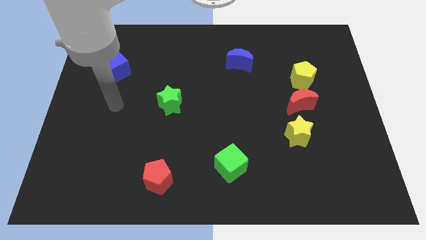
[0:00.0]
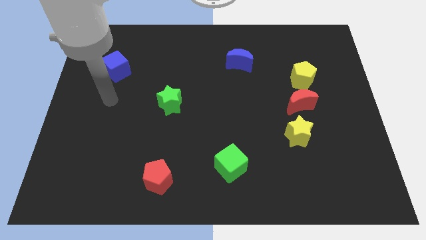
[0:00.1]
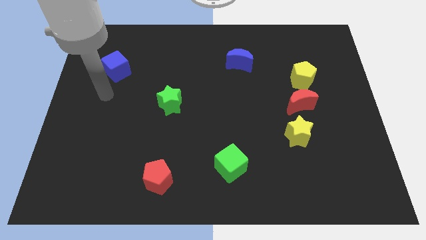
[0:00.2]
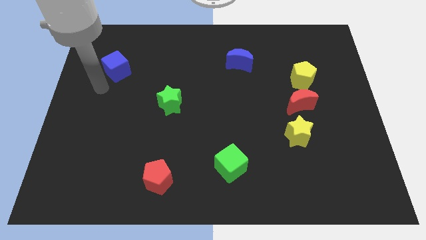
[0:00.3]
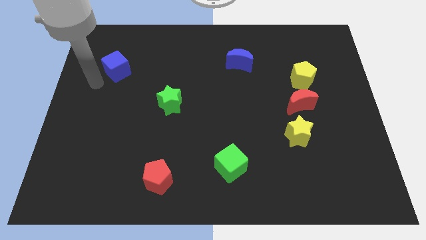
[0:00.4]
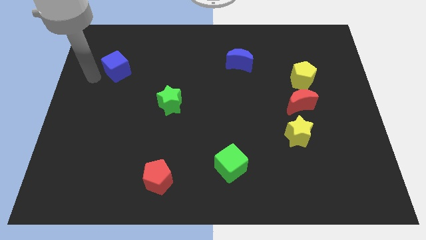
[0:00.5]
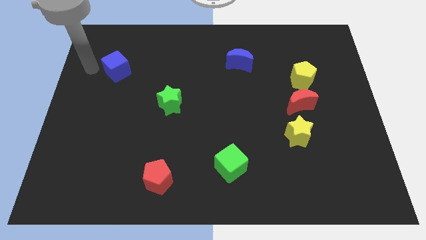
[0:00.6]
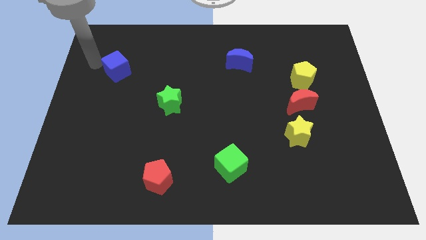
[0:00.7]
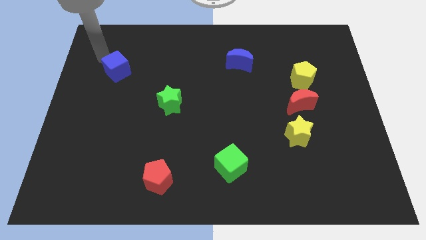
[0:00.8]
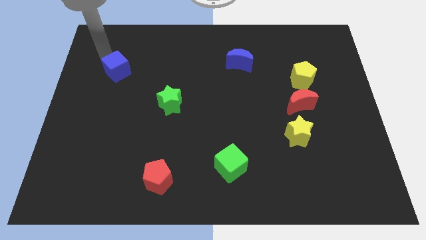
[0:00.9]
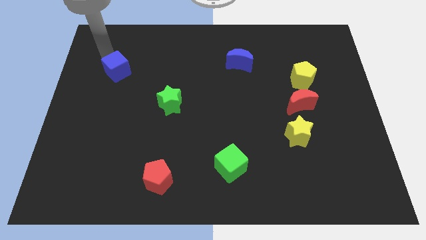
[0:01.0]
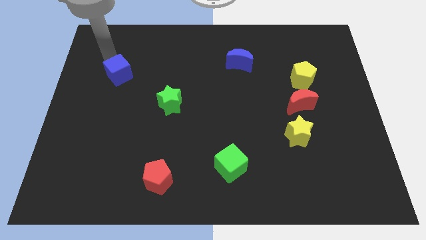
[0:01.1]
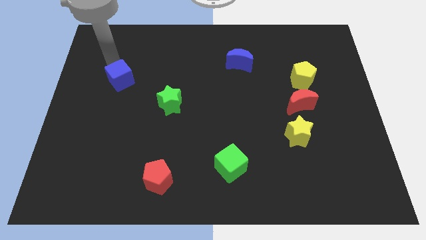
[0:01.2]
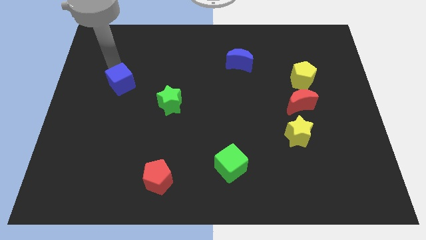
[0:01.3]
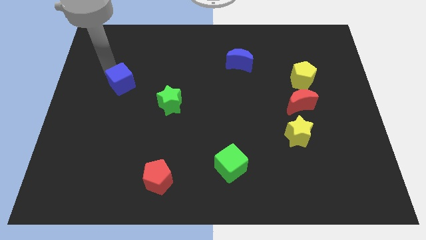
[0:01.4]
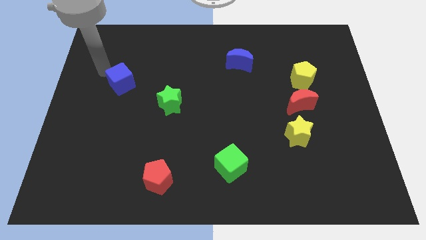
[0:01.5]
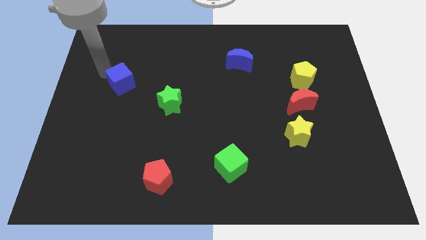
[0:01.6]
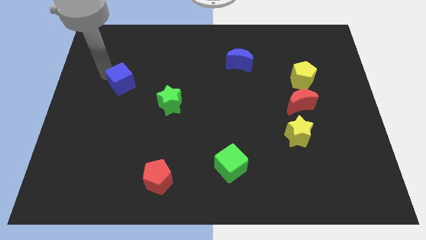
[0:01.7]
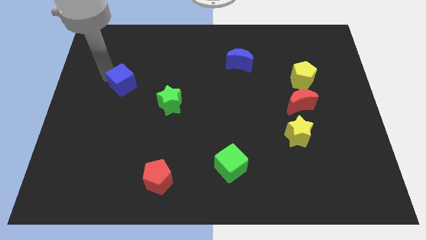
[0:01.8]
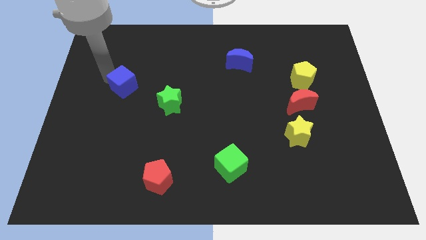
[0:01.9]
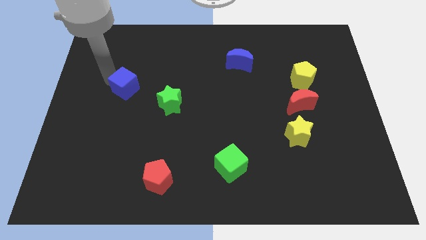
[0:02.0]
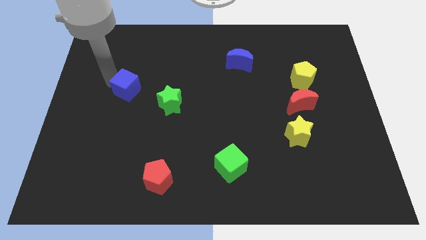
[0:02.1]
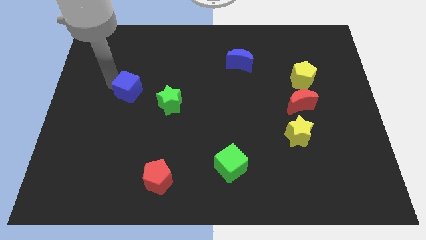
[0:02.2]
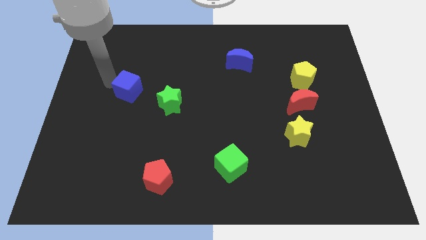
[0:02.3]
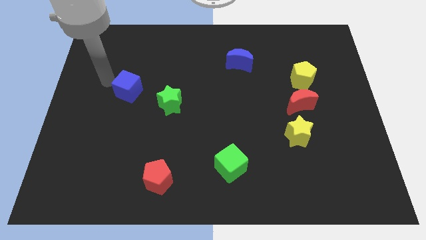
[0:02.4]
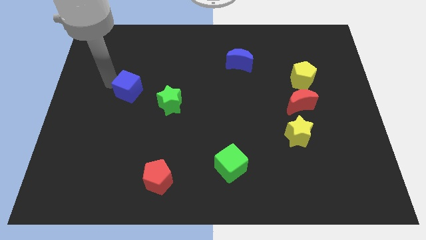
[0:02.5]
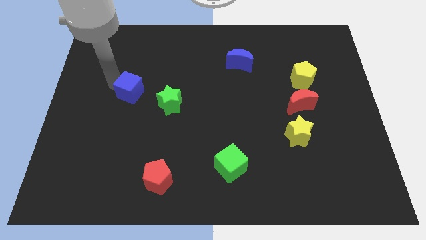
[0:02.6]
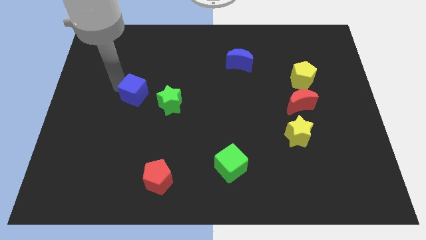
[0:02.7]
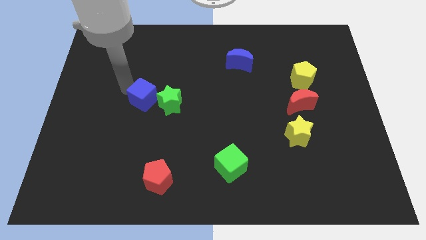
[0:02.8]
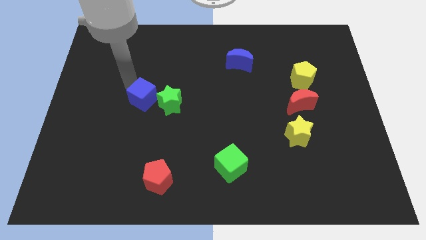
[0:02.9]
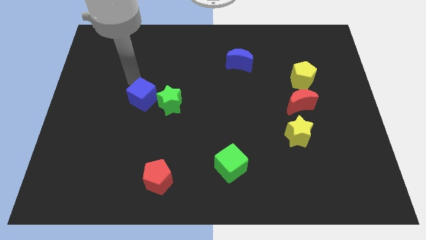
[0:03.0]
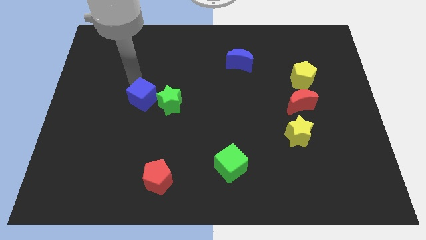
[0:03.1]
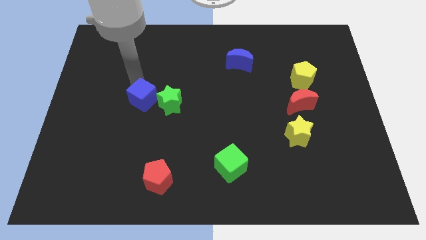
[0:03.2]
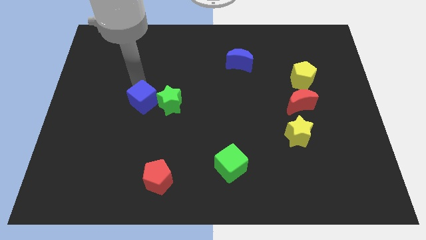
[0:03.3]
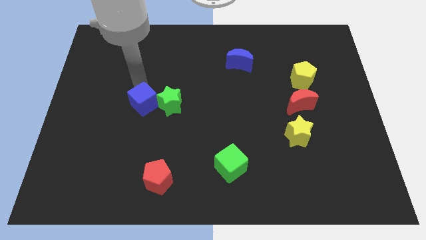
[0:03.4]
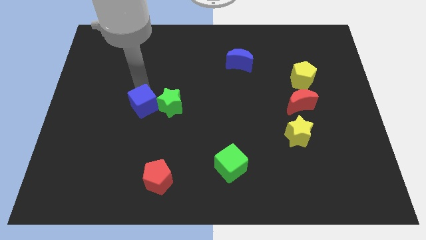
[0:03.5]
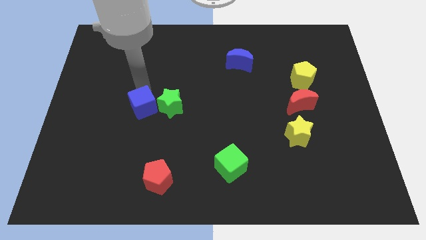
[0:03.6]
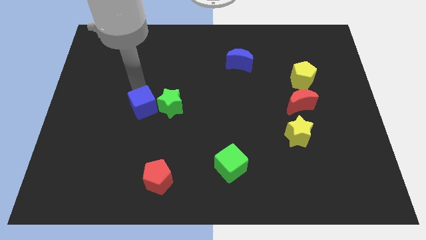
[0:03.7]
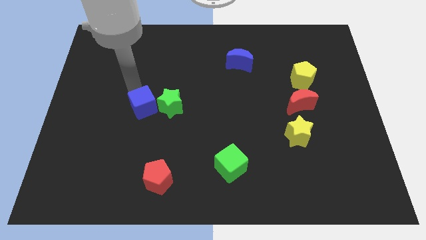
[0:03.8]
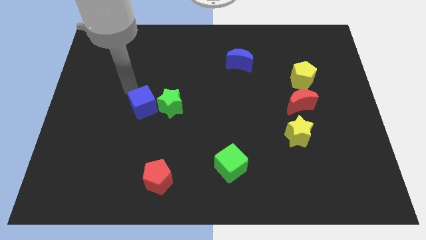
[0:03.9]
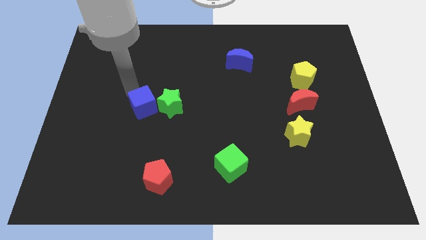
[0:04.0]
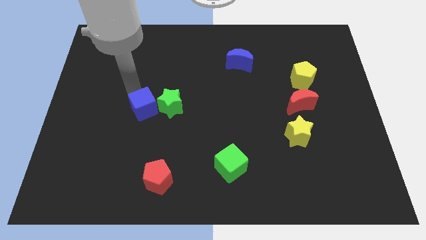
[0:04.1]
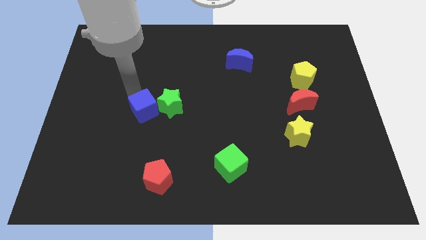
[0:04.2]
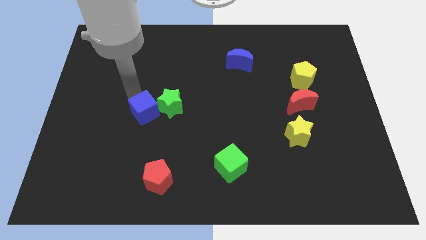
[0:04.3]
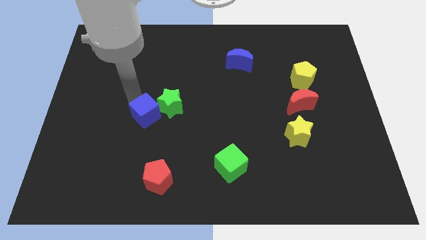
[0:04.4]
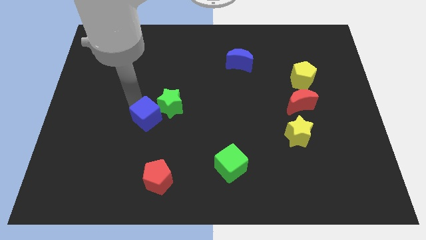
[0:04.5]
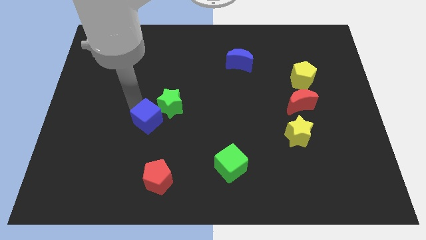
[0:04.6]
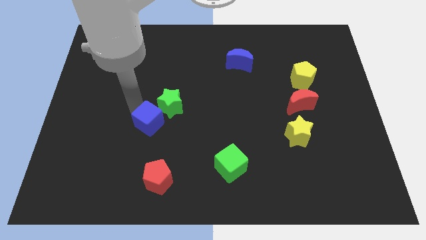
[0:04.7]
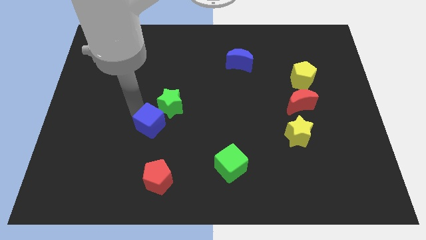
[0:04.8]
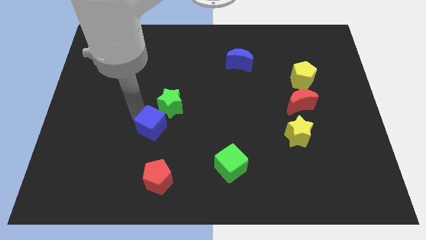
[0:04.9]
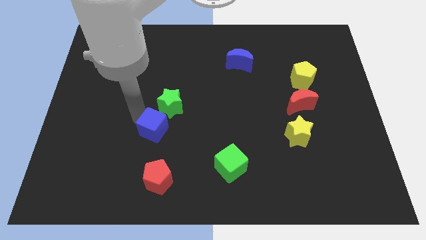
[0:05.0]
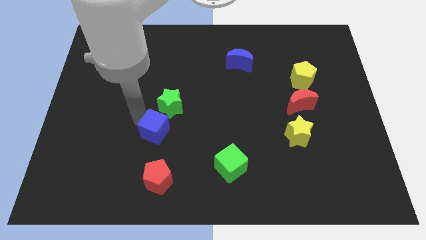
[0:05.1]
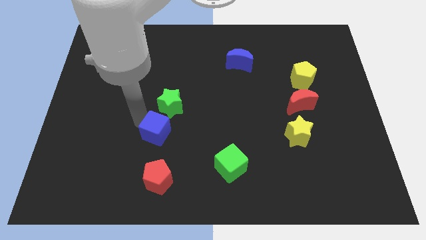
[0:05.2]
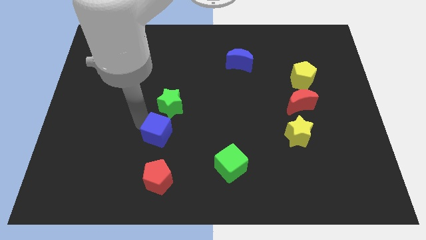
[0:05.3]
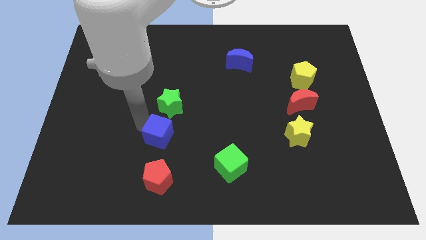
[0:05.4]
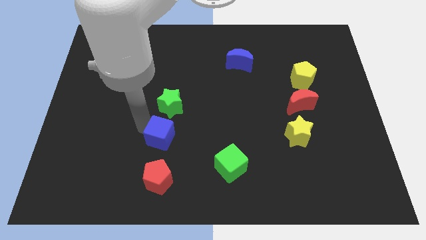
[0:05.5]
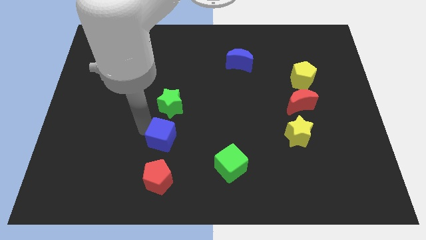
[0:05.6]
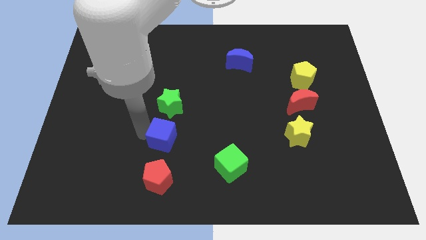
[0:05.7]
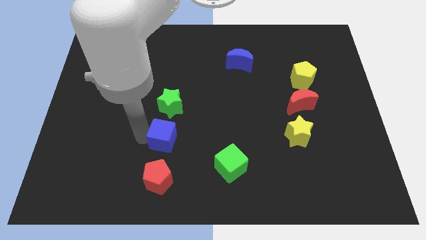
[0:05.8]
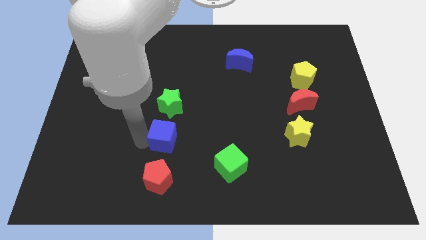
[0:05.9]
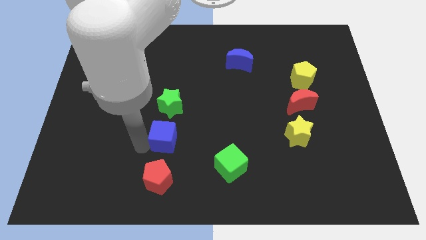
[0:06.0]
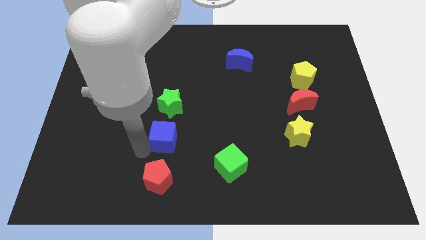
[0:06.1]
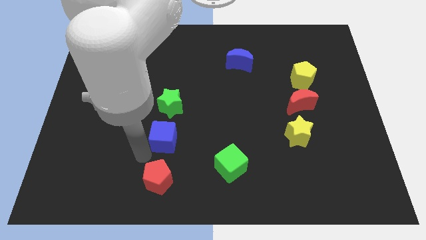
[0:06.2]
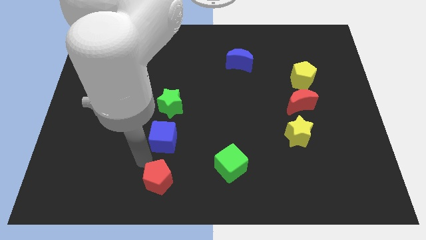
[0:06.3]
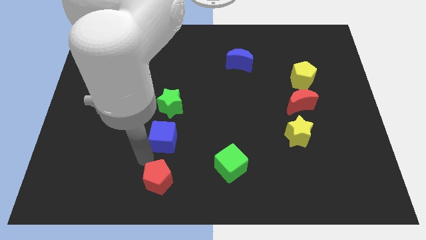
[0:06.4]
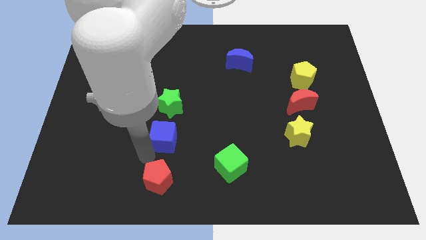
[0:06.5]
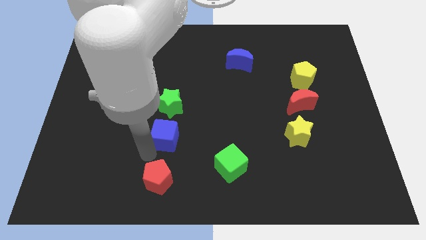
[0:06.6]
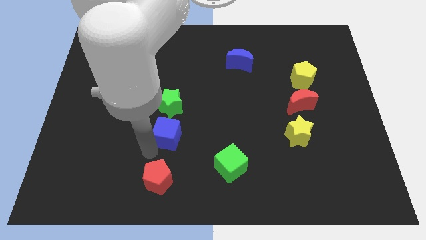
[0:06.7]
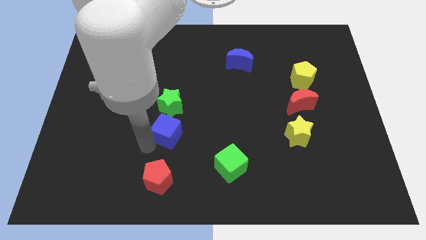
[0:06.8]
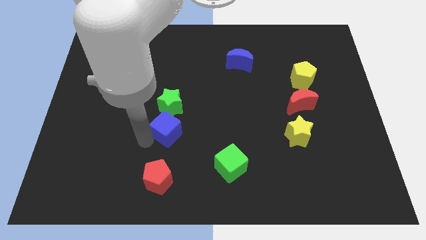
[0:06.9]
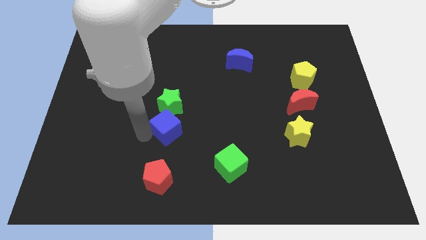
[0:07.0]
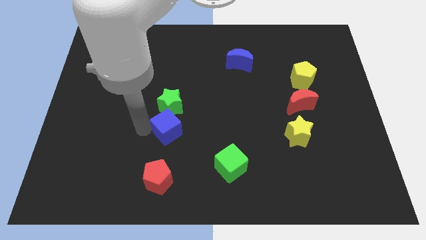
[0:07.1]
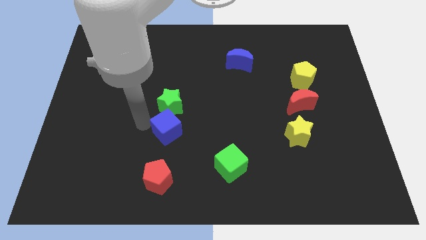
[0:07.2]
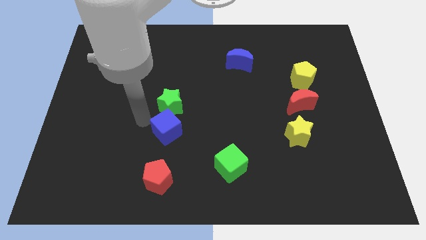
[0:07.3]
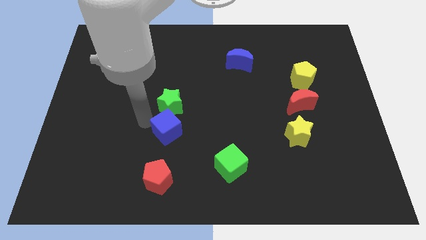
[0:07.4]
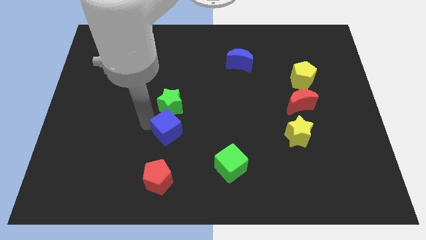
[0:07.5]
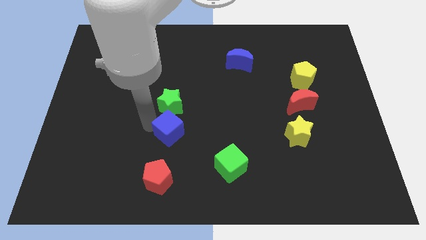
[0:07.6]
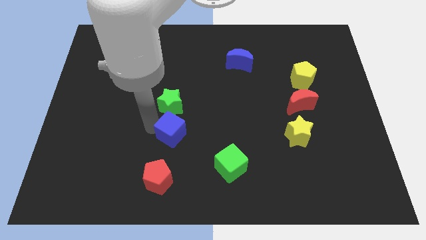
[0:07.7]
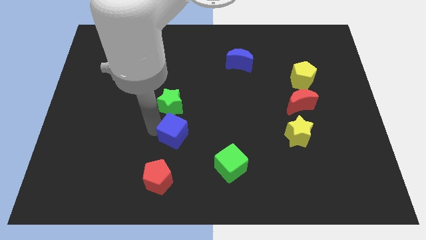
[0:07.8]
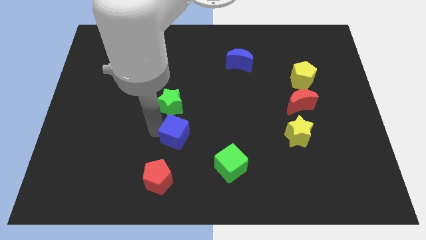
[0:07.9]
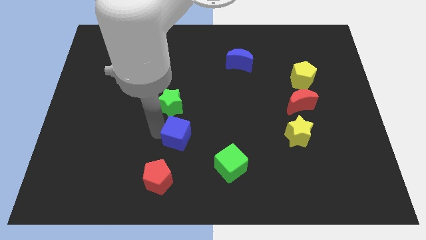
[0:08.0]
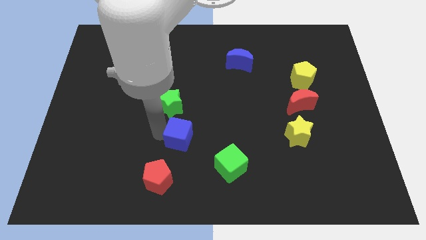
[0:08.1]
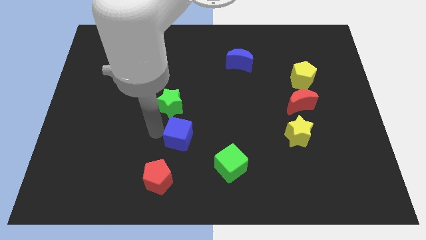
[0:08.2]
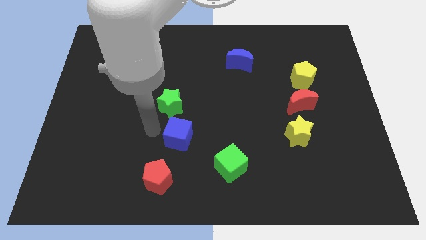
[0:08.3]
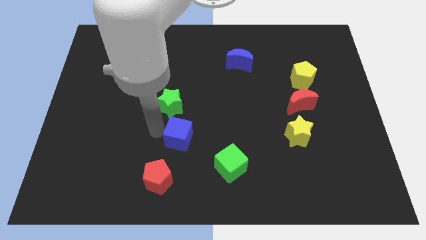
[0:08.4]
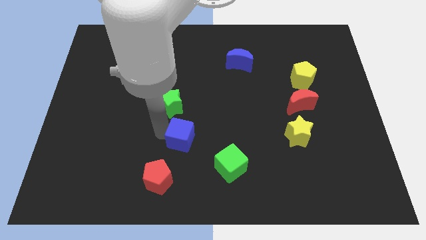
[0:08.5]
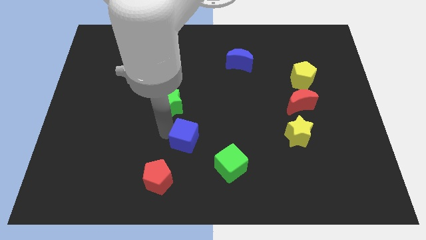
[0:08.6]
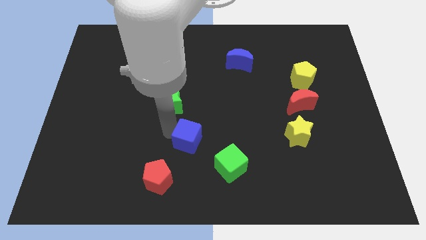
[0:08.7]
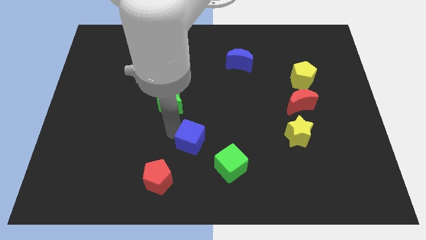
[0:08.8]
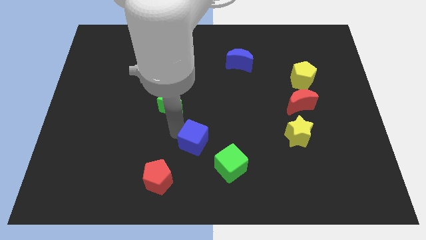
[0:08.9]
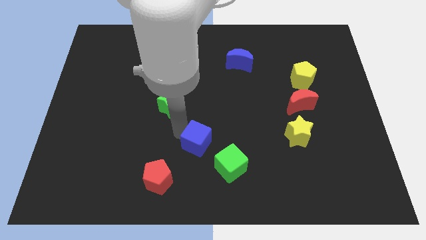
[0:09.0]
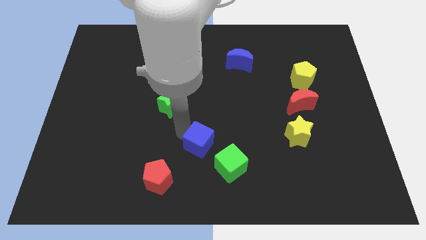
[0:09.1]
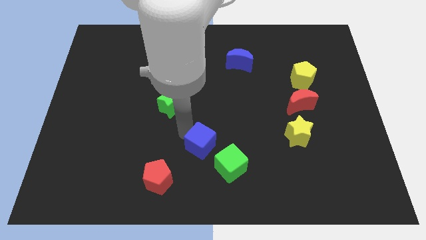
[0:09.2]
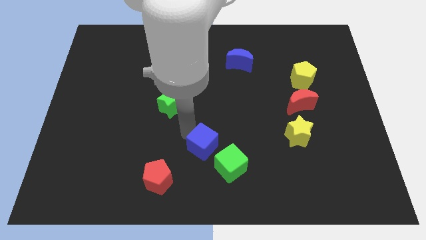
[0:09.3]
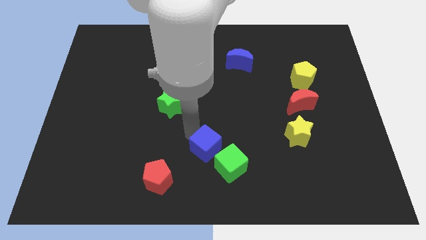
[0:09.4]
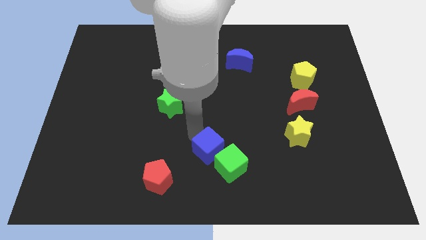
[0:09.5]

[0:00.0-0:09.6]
put the blue cube close to the green cube
